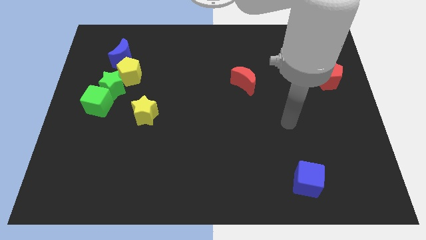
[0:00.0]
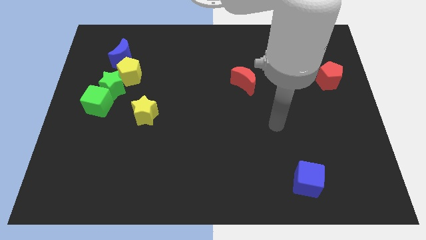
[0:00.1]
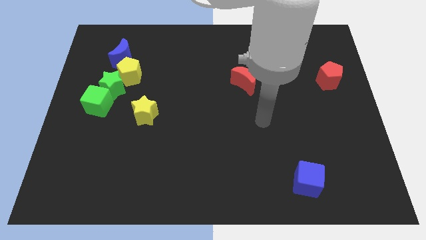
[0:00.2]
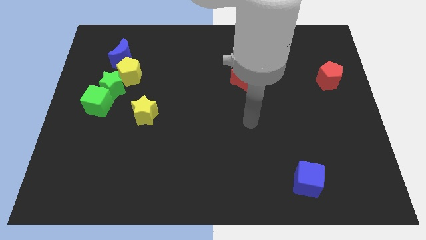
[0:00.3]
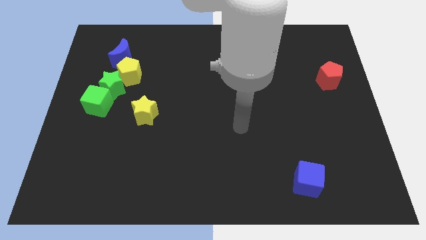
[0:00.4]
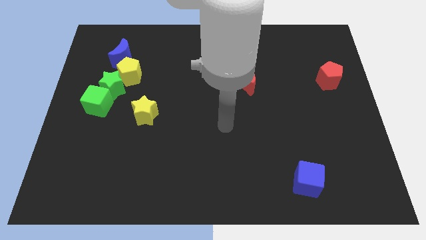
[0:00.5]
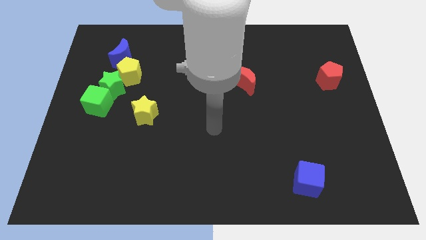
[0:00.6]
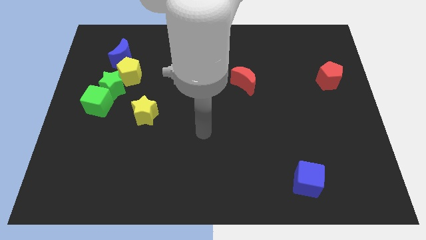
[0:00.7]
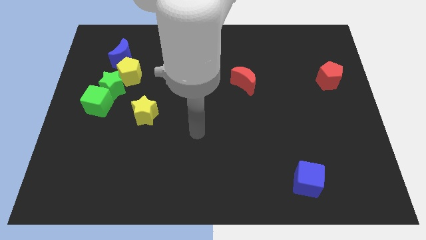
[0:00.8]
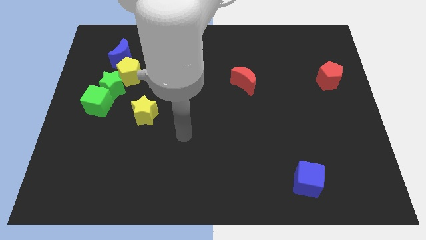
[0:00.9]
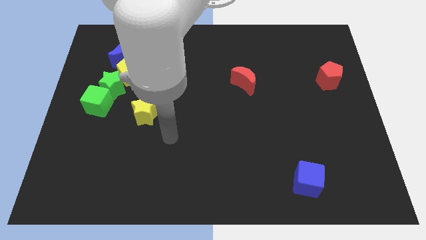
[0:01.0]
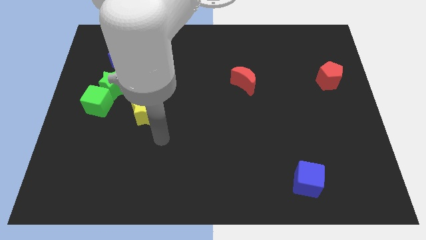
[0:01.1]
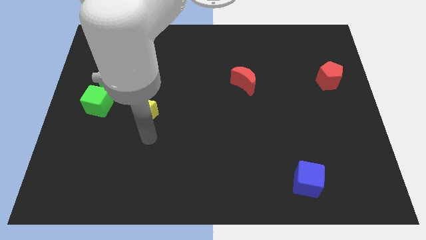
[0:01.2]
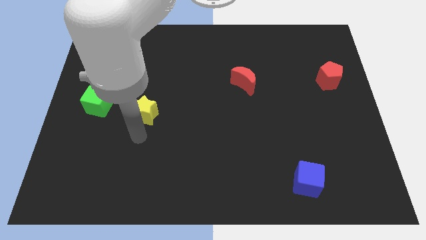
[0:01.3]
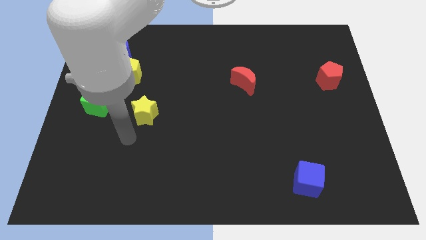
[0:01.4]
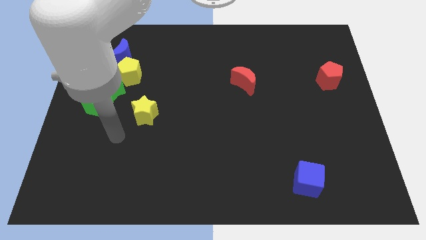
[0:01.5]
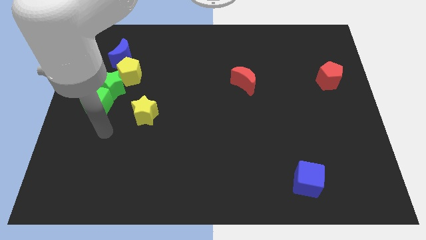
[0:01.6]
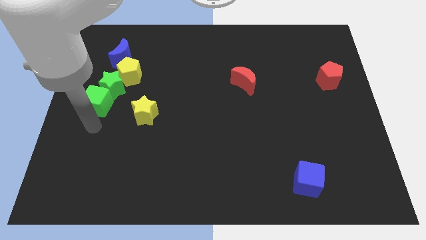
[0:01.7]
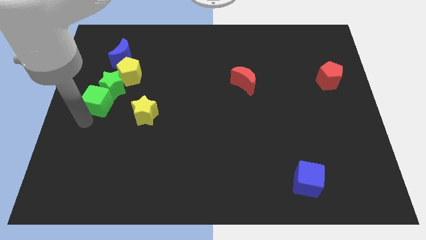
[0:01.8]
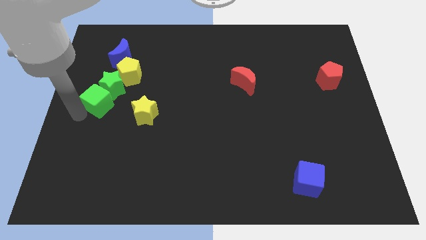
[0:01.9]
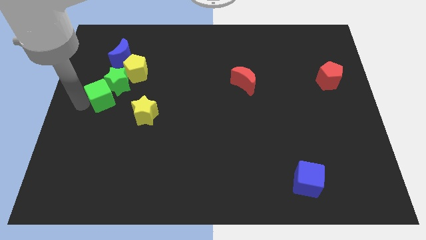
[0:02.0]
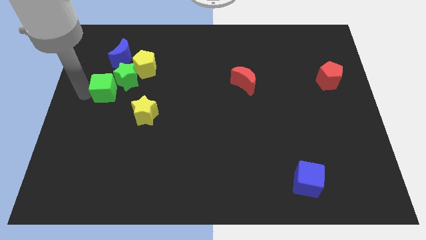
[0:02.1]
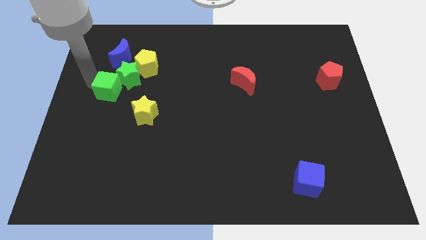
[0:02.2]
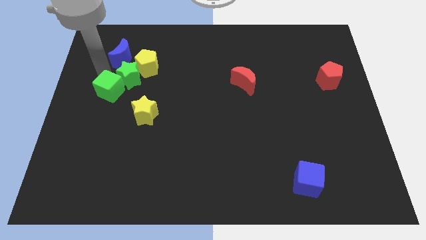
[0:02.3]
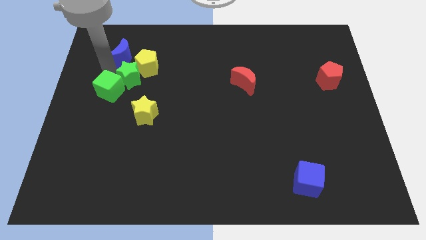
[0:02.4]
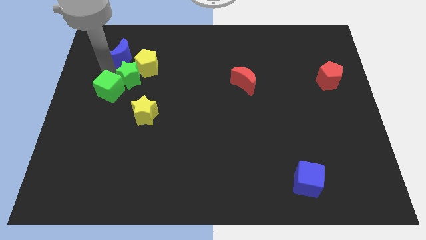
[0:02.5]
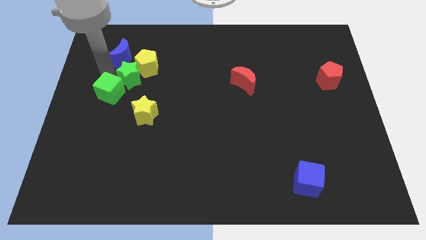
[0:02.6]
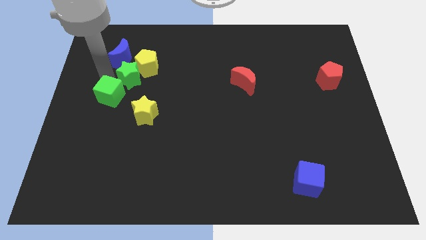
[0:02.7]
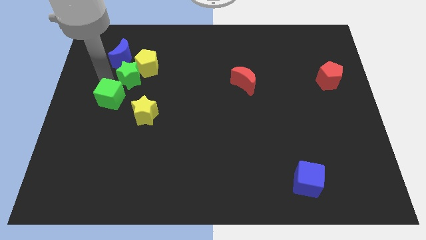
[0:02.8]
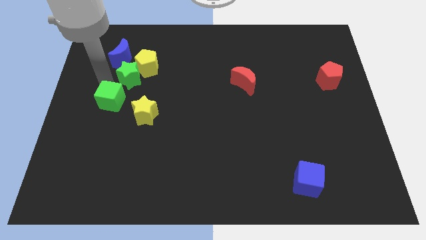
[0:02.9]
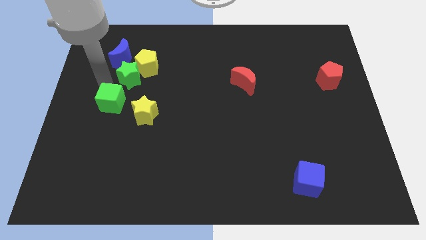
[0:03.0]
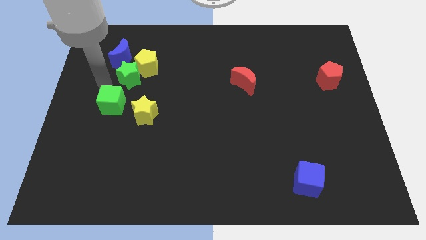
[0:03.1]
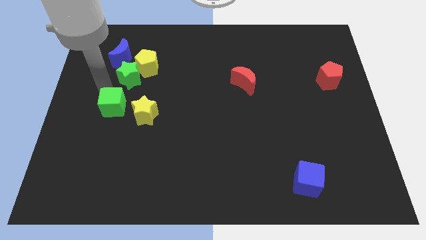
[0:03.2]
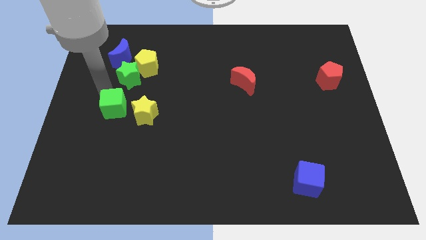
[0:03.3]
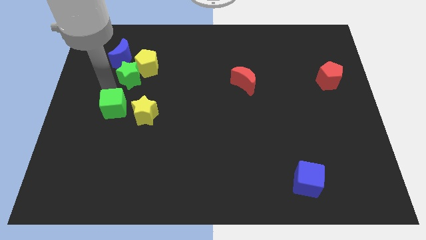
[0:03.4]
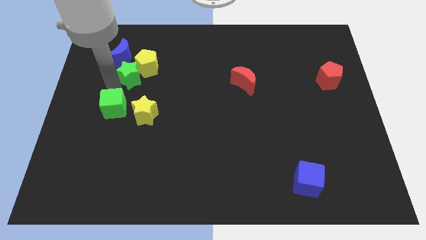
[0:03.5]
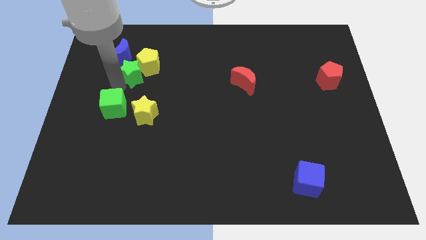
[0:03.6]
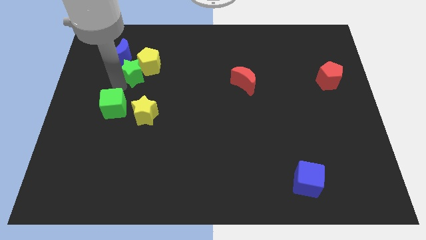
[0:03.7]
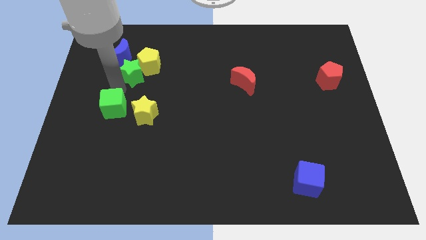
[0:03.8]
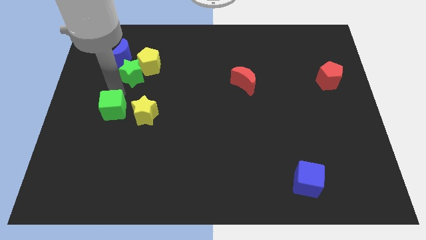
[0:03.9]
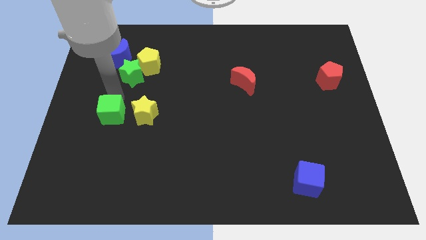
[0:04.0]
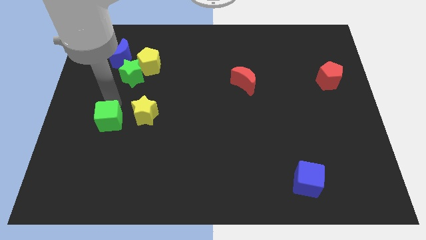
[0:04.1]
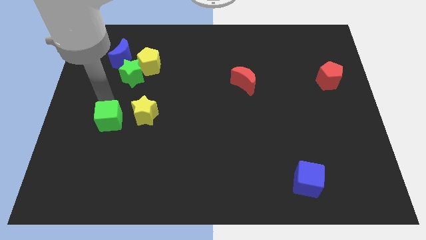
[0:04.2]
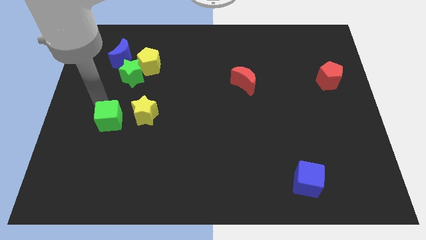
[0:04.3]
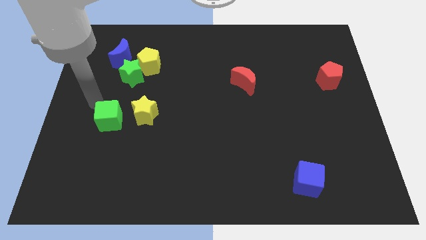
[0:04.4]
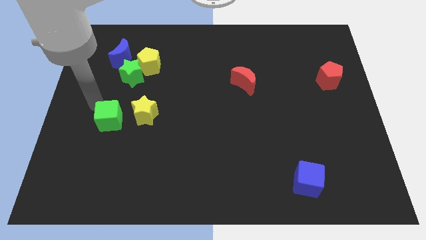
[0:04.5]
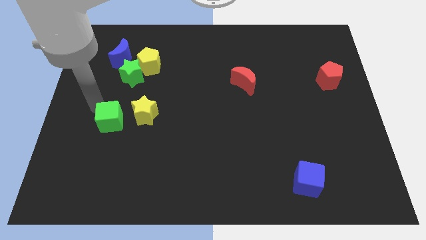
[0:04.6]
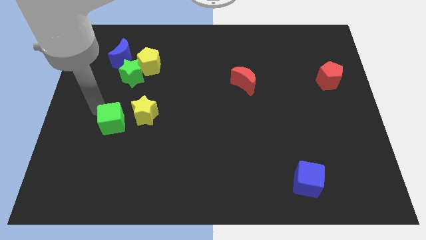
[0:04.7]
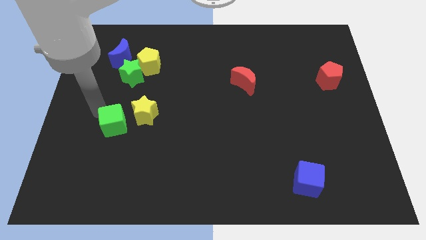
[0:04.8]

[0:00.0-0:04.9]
slightly push the green cube downwards and right diagonally

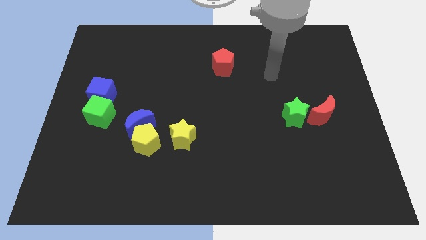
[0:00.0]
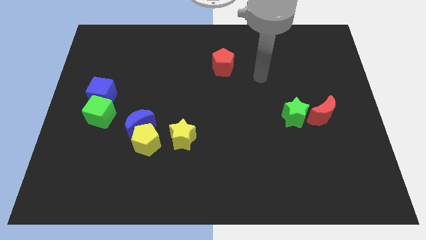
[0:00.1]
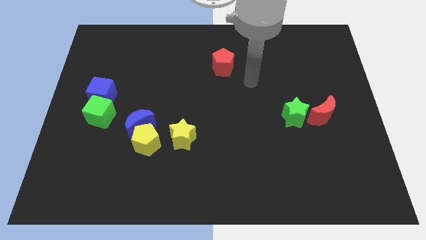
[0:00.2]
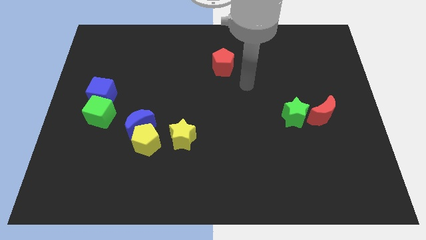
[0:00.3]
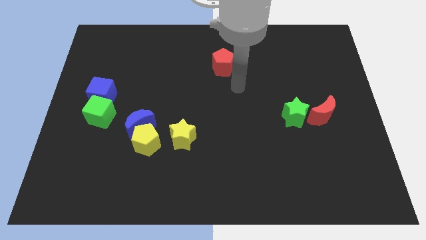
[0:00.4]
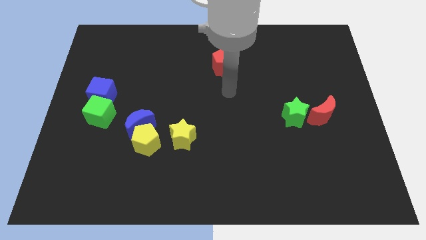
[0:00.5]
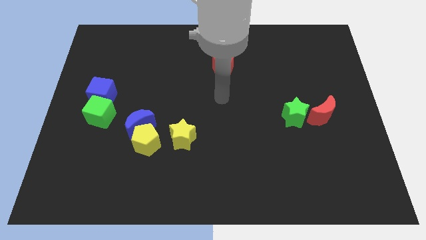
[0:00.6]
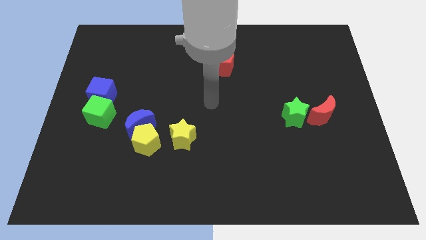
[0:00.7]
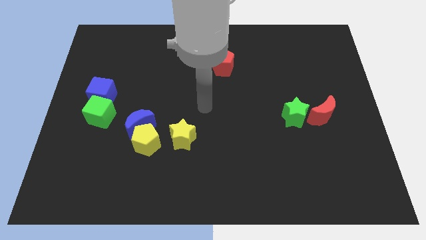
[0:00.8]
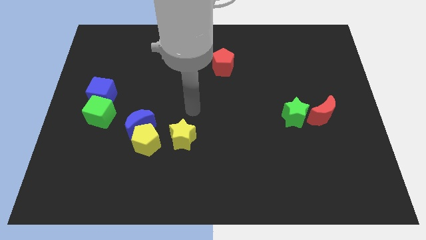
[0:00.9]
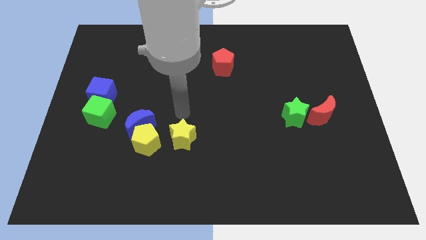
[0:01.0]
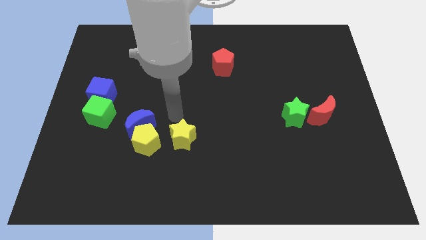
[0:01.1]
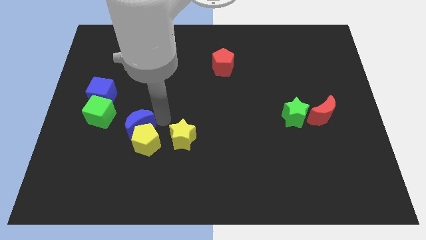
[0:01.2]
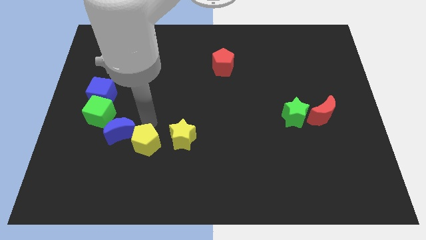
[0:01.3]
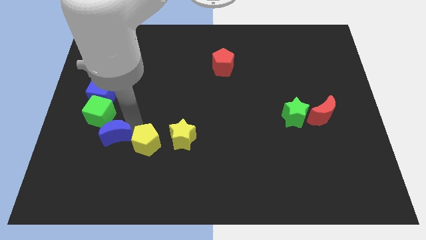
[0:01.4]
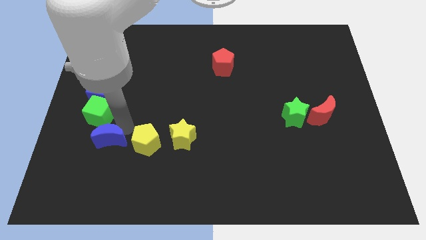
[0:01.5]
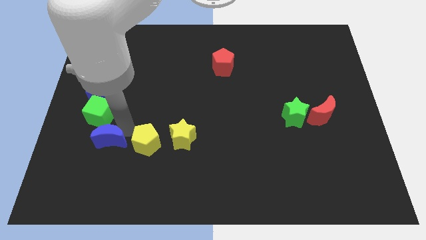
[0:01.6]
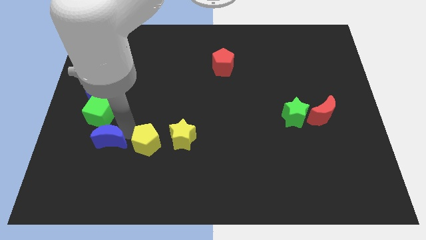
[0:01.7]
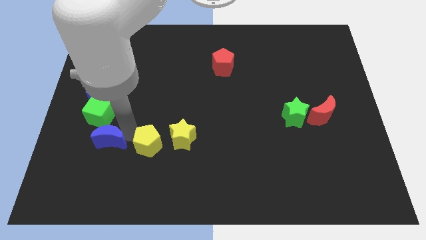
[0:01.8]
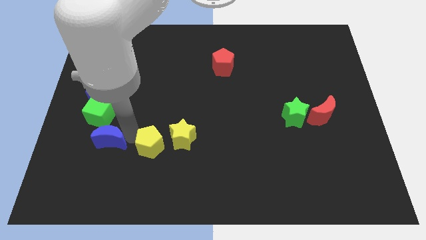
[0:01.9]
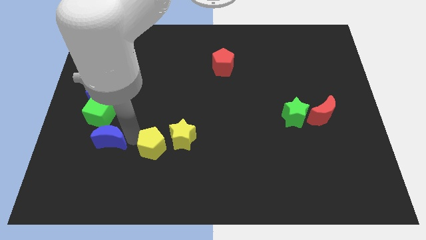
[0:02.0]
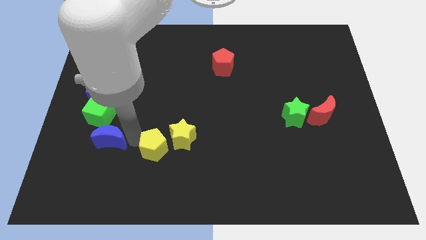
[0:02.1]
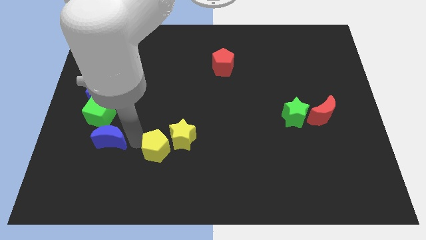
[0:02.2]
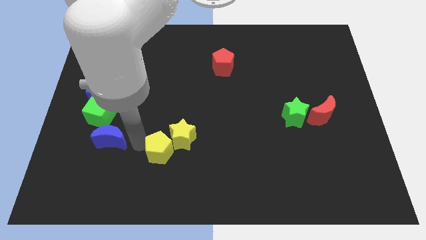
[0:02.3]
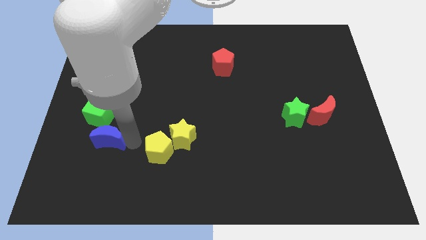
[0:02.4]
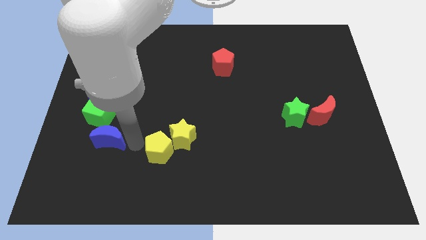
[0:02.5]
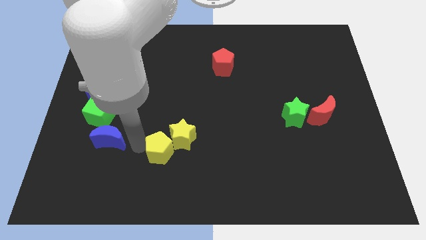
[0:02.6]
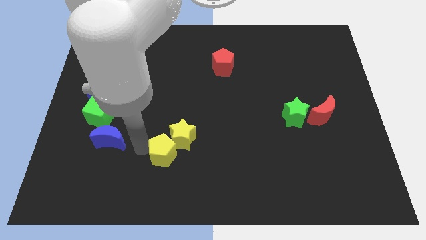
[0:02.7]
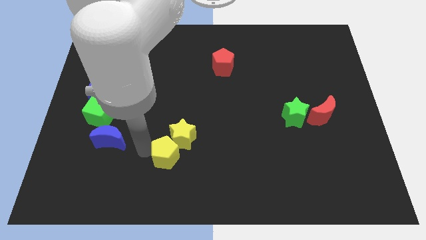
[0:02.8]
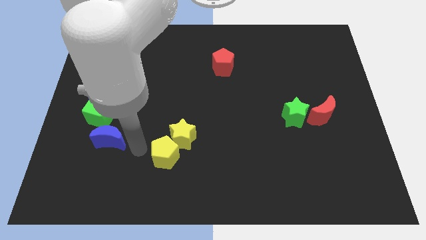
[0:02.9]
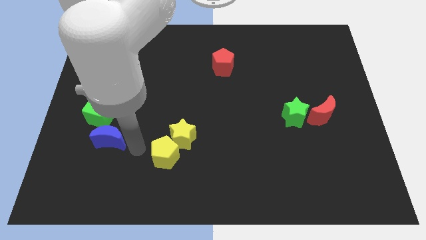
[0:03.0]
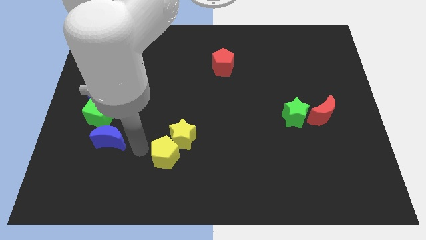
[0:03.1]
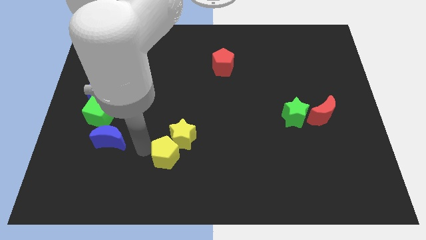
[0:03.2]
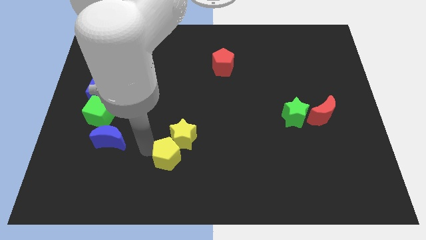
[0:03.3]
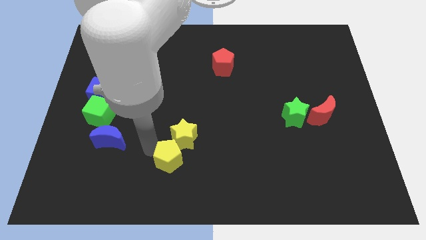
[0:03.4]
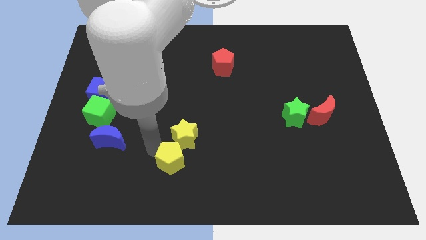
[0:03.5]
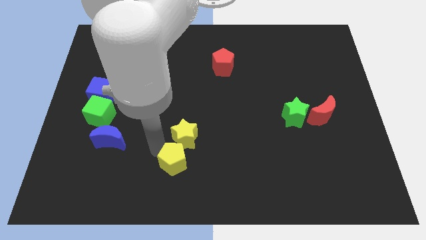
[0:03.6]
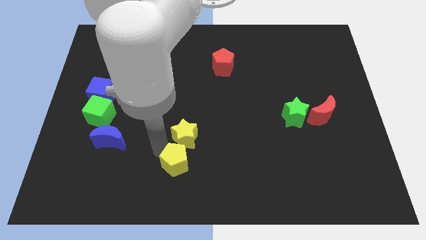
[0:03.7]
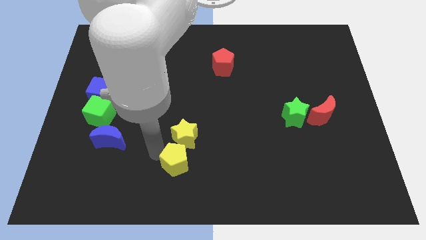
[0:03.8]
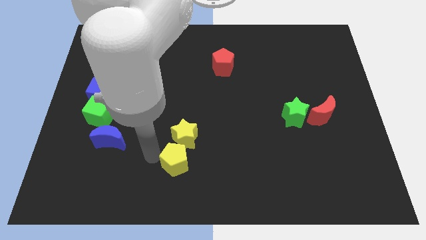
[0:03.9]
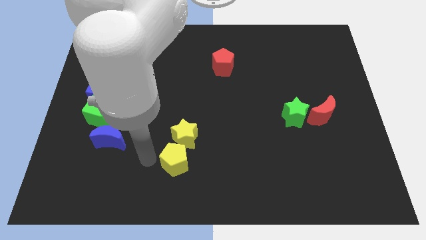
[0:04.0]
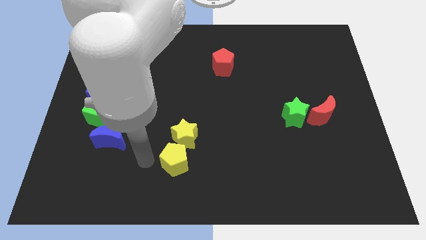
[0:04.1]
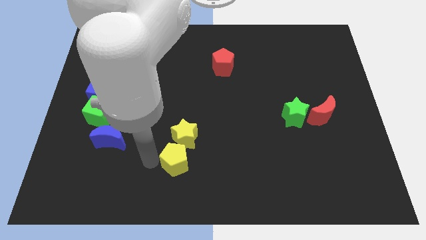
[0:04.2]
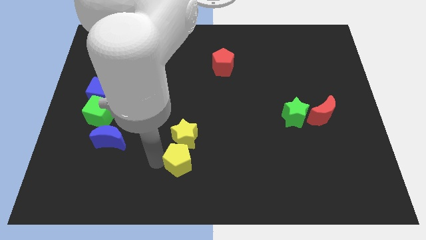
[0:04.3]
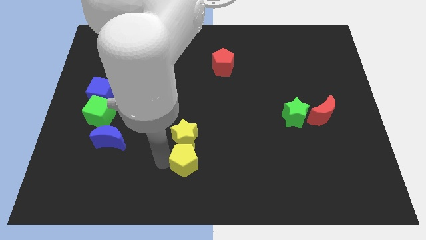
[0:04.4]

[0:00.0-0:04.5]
move the yellow pentagon to the right a bit
